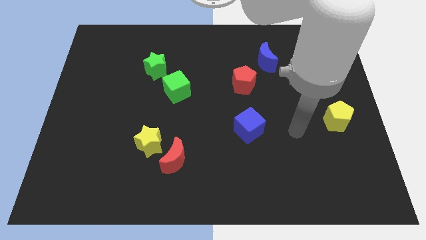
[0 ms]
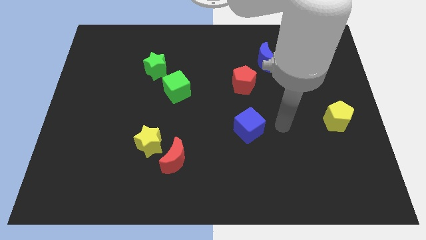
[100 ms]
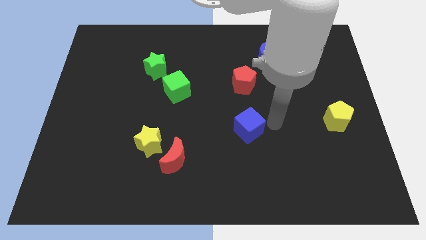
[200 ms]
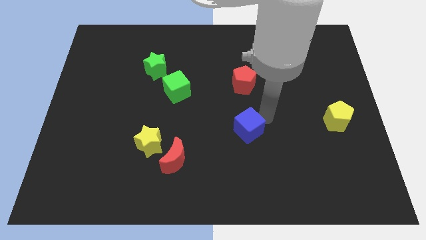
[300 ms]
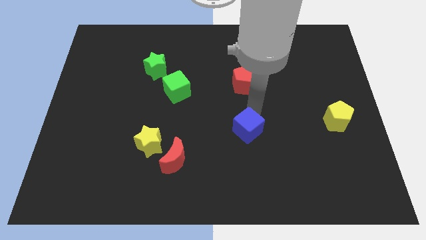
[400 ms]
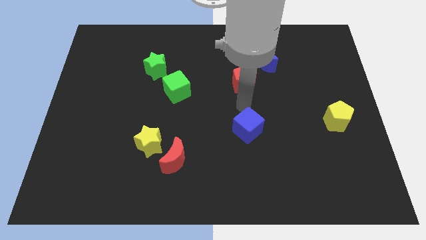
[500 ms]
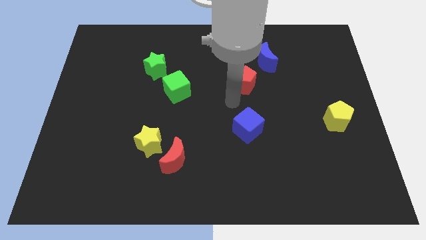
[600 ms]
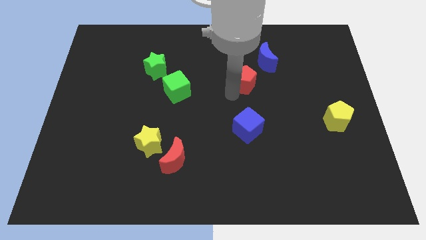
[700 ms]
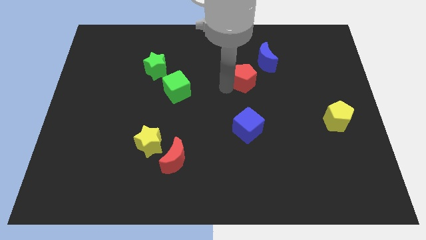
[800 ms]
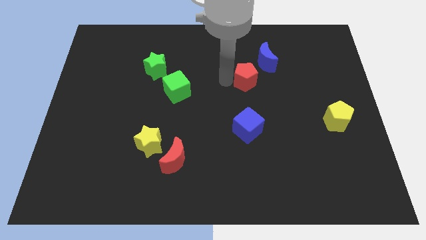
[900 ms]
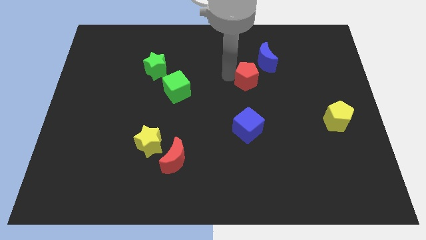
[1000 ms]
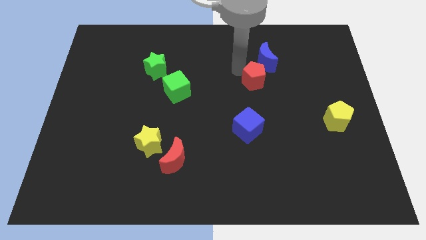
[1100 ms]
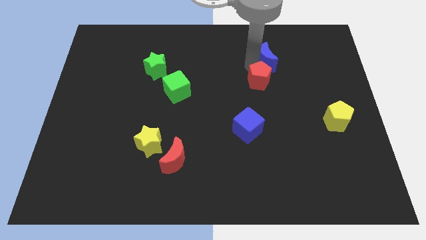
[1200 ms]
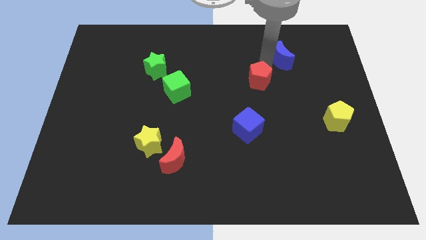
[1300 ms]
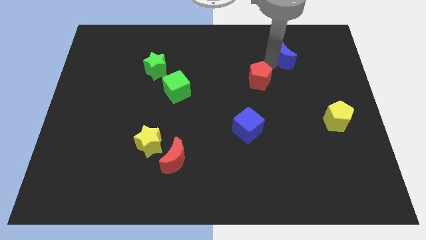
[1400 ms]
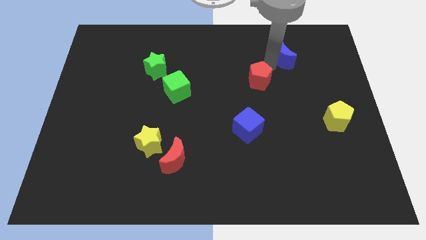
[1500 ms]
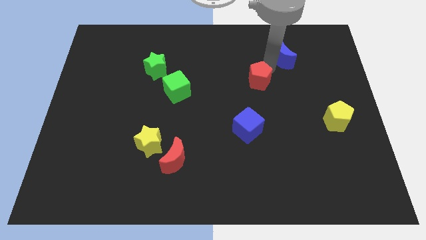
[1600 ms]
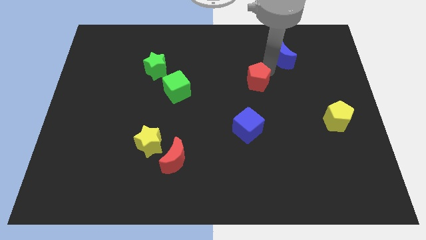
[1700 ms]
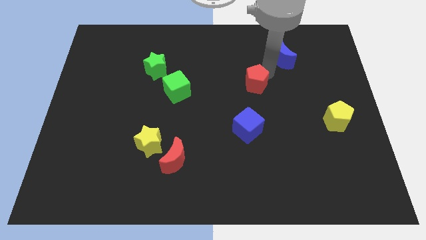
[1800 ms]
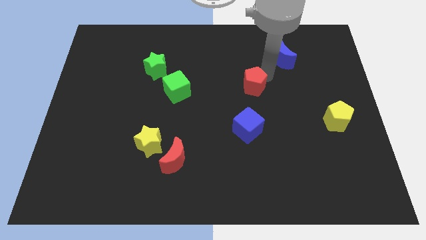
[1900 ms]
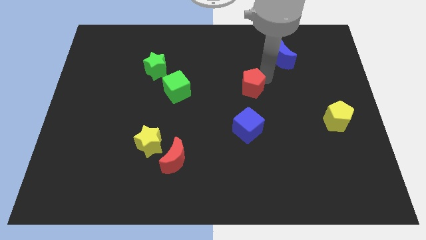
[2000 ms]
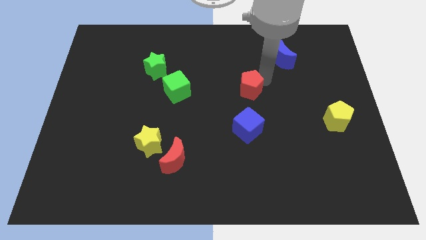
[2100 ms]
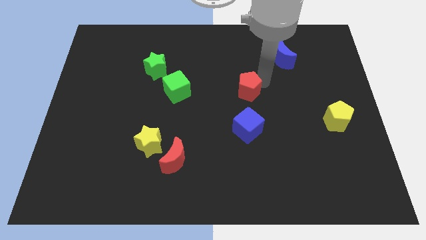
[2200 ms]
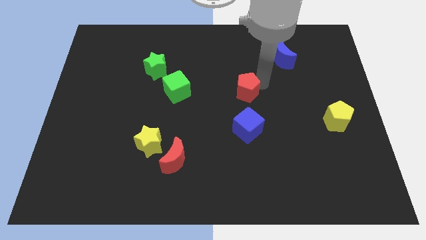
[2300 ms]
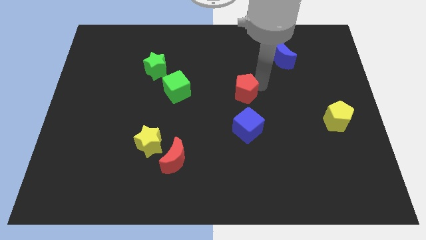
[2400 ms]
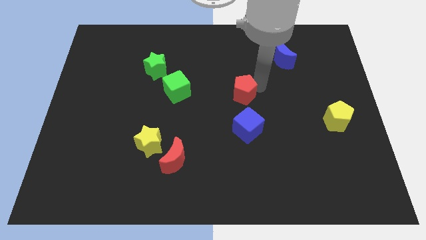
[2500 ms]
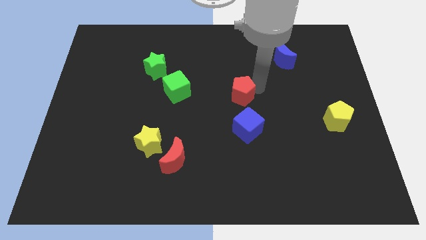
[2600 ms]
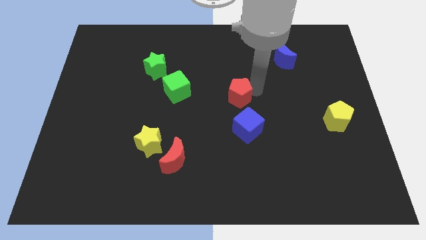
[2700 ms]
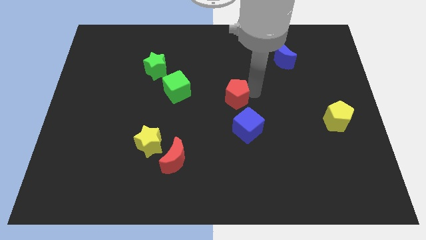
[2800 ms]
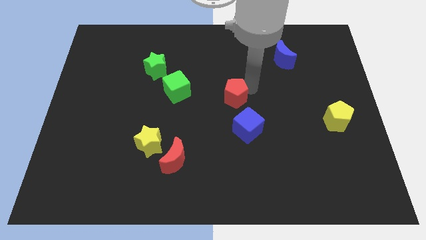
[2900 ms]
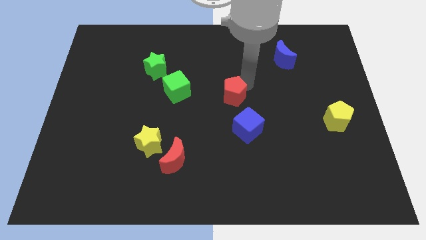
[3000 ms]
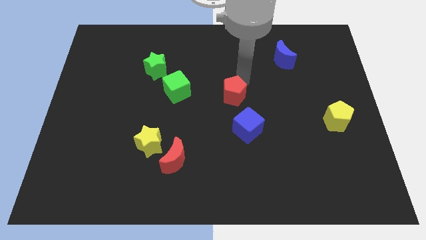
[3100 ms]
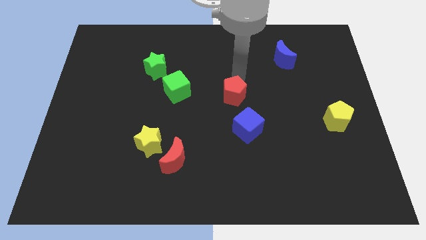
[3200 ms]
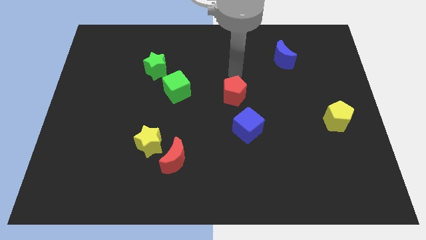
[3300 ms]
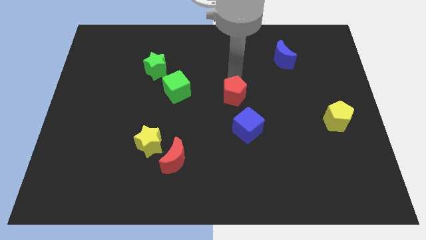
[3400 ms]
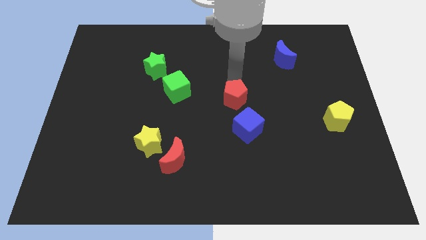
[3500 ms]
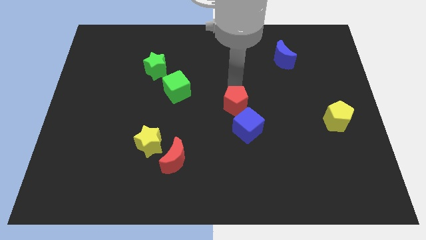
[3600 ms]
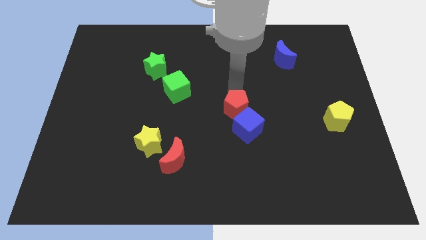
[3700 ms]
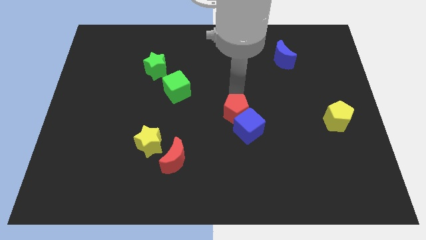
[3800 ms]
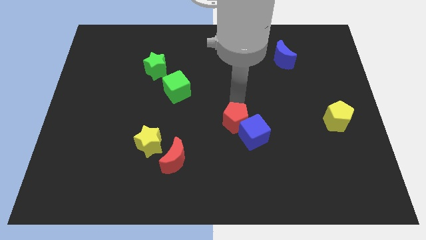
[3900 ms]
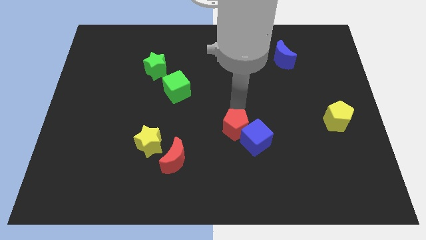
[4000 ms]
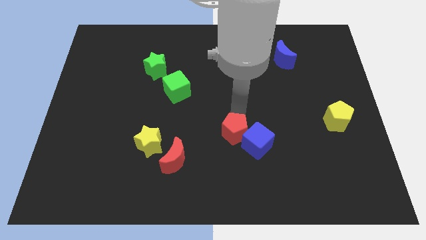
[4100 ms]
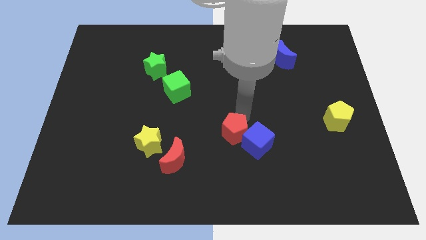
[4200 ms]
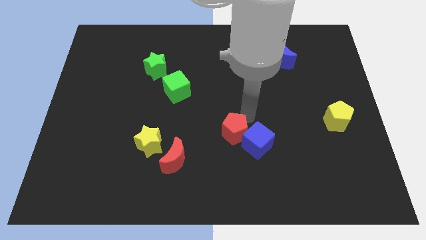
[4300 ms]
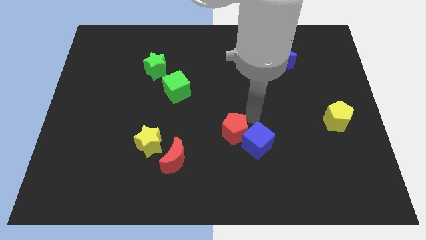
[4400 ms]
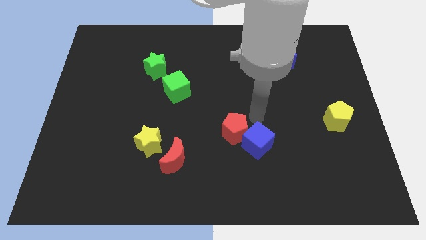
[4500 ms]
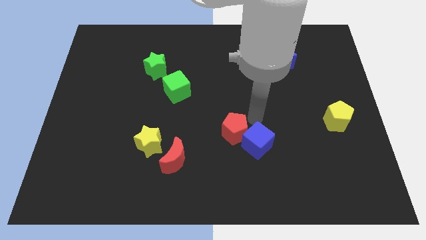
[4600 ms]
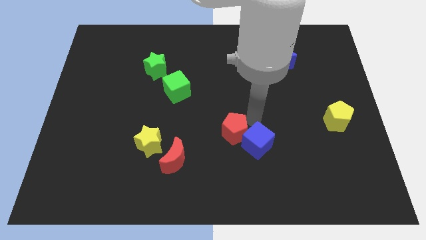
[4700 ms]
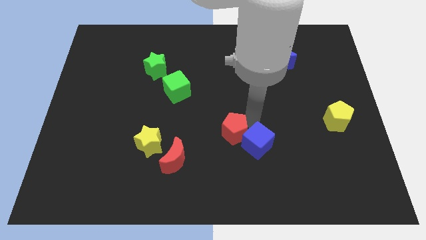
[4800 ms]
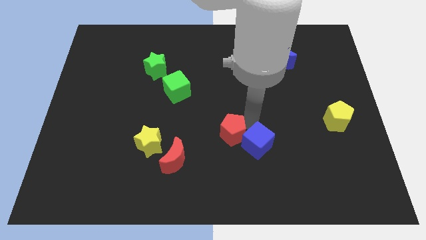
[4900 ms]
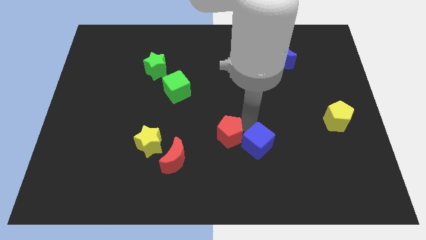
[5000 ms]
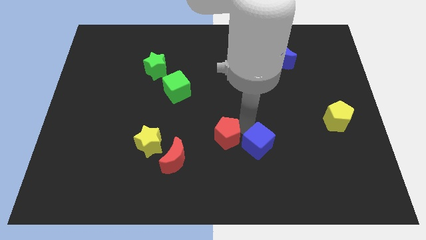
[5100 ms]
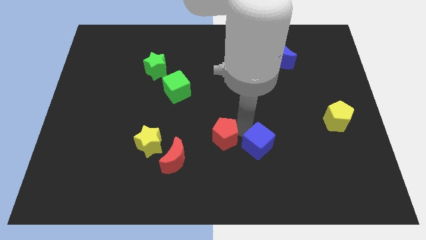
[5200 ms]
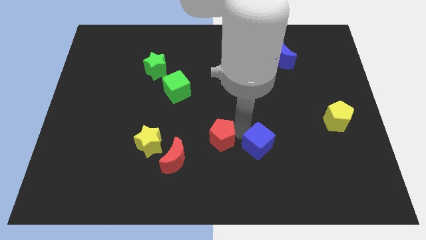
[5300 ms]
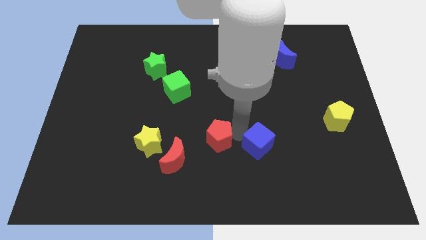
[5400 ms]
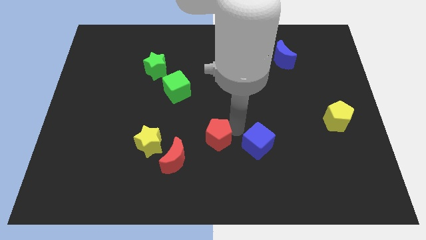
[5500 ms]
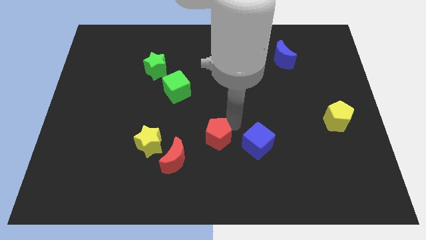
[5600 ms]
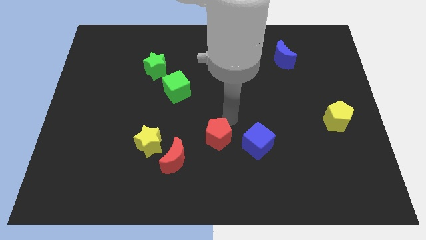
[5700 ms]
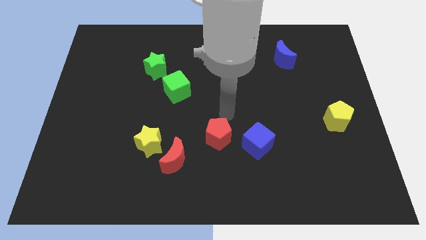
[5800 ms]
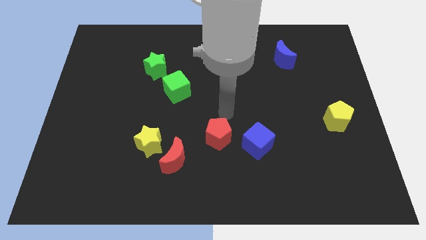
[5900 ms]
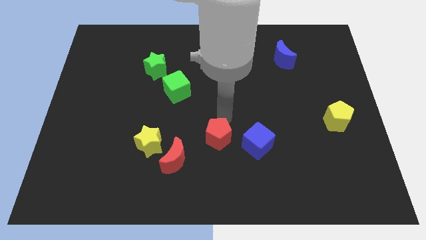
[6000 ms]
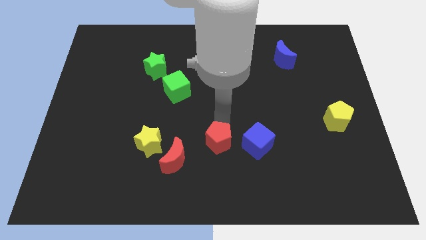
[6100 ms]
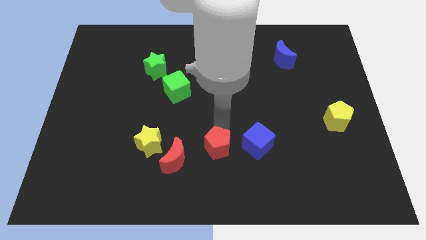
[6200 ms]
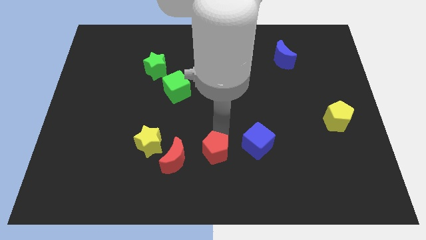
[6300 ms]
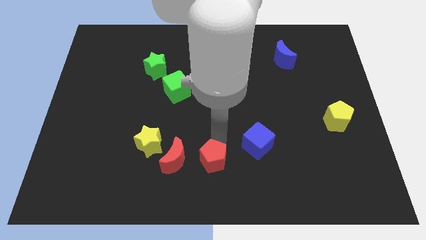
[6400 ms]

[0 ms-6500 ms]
put the red pentagon to the bottom side

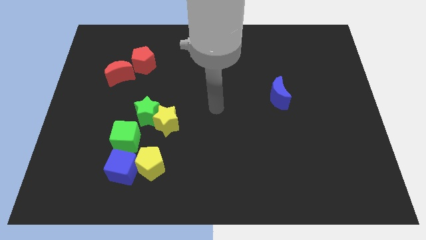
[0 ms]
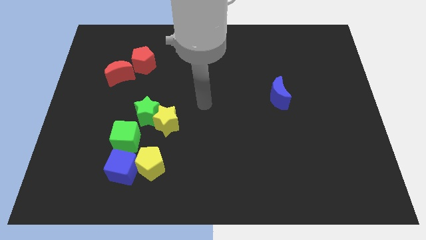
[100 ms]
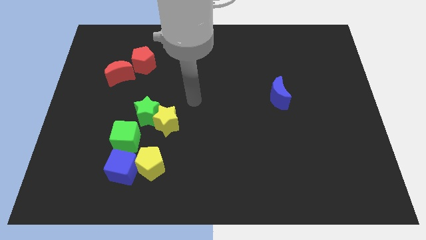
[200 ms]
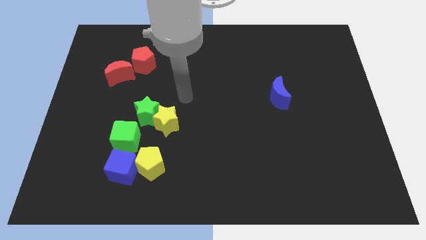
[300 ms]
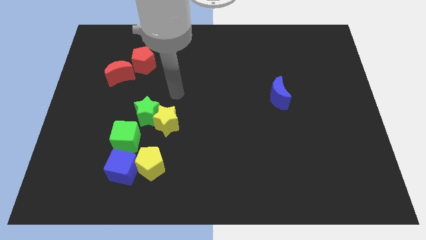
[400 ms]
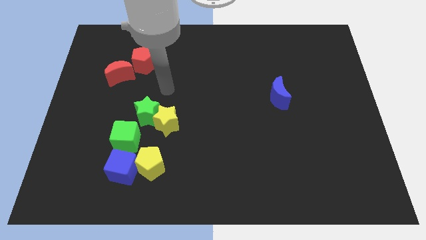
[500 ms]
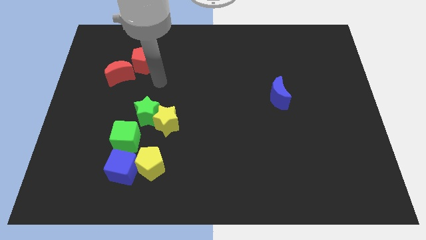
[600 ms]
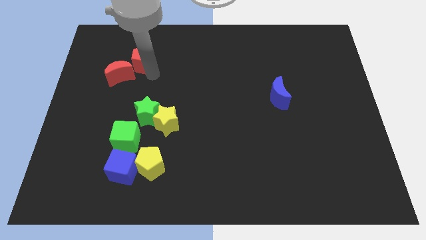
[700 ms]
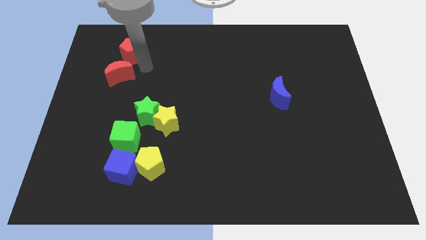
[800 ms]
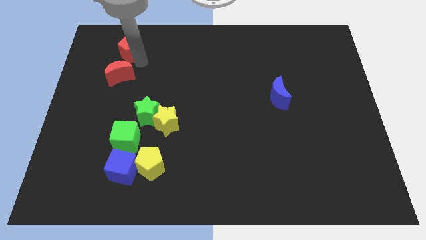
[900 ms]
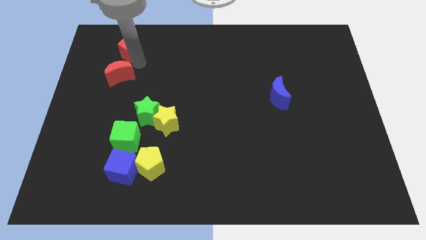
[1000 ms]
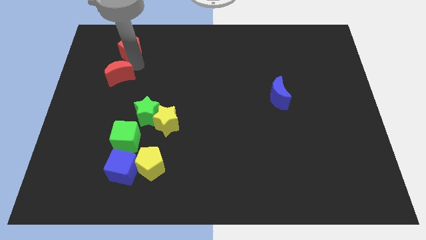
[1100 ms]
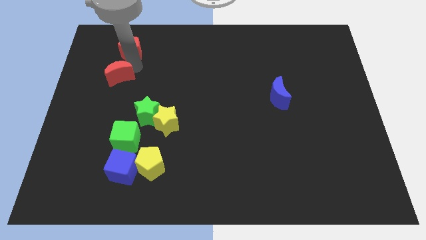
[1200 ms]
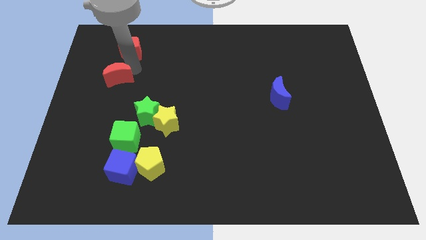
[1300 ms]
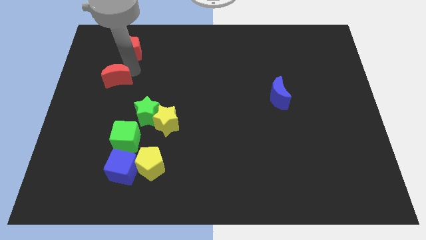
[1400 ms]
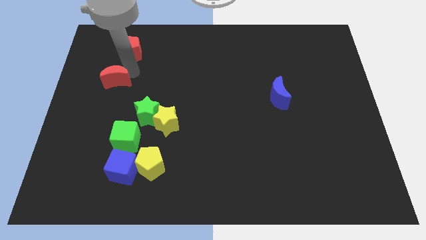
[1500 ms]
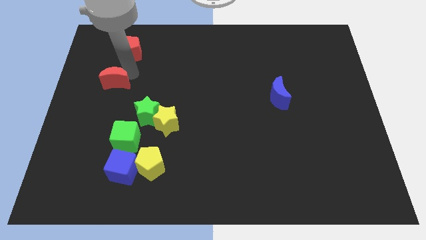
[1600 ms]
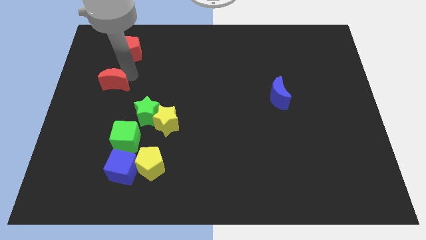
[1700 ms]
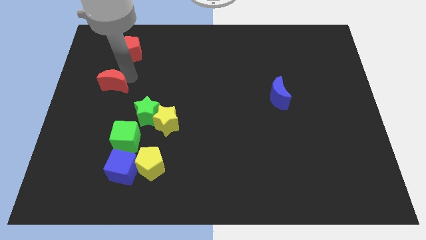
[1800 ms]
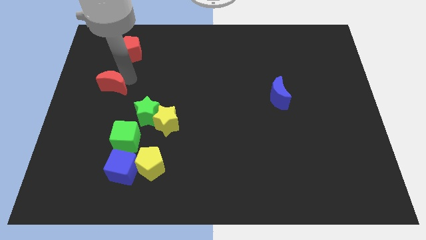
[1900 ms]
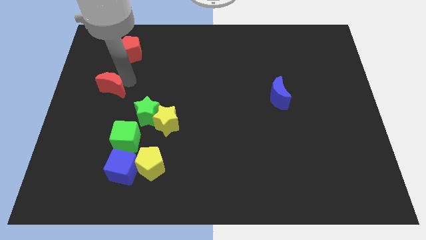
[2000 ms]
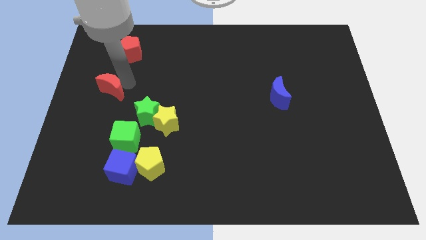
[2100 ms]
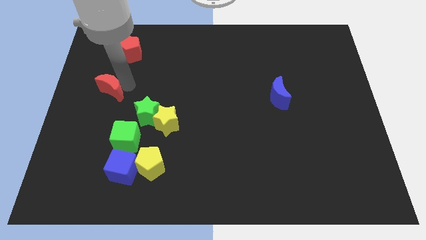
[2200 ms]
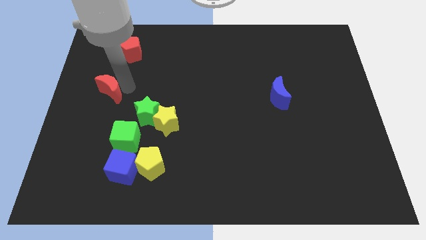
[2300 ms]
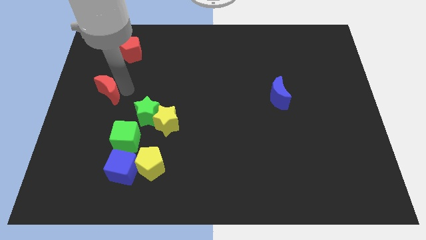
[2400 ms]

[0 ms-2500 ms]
put the red moon to the left side
